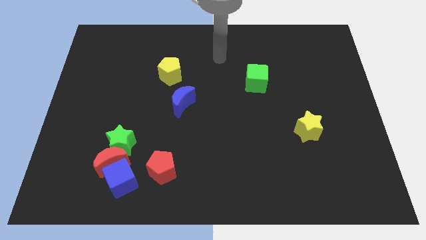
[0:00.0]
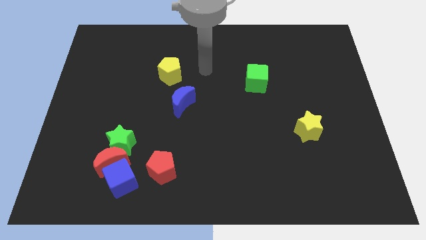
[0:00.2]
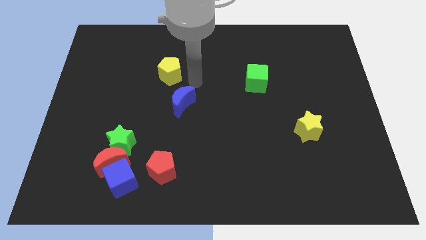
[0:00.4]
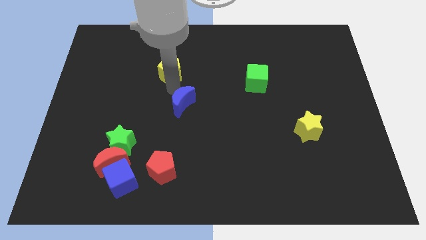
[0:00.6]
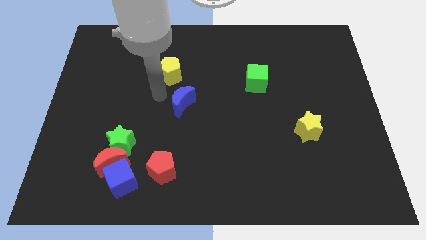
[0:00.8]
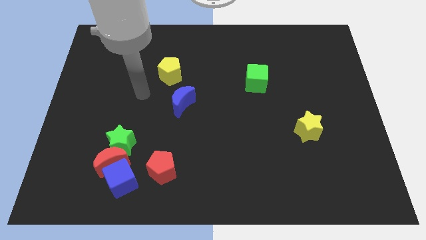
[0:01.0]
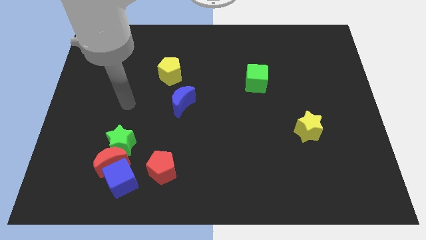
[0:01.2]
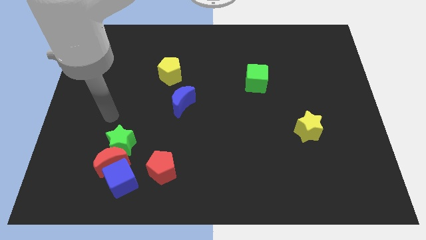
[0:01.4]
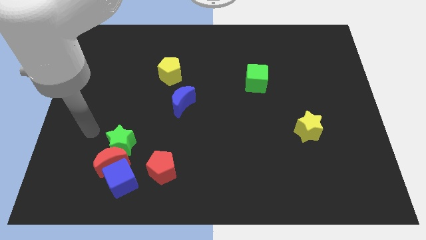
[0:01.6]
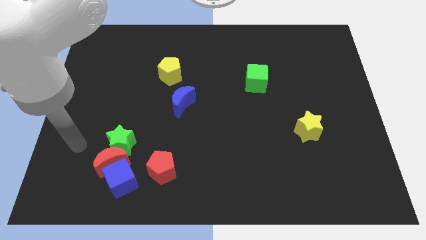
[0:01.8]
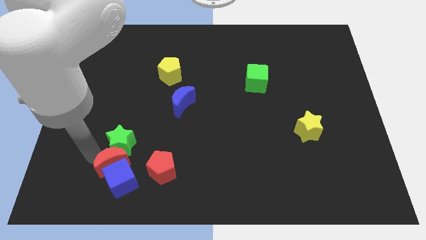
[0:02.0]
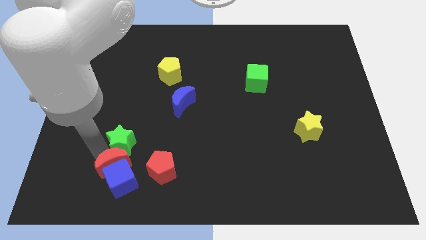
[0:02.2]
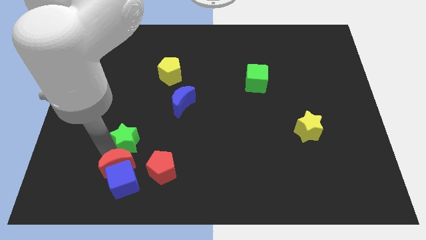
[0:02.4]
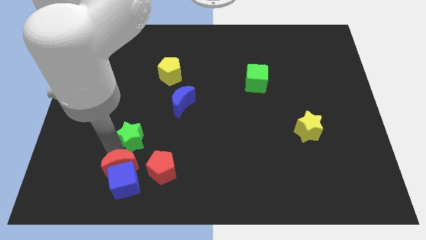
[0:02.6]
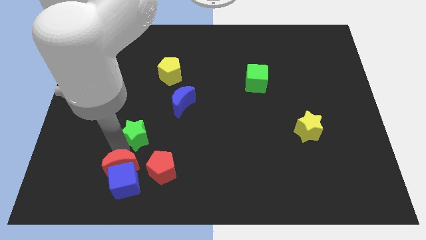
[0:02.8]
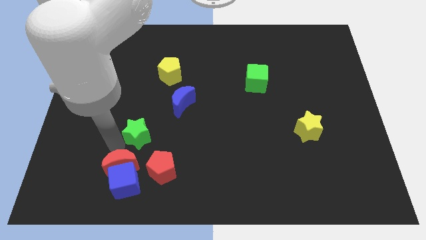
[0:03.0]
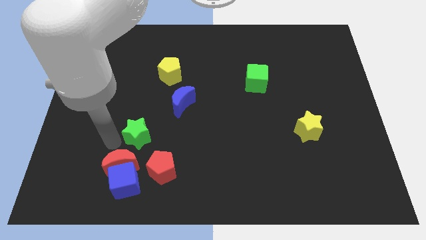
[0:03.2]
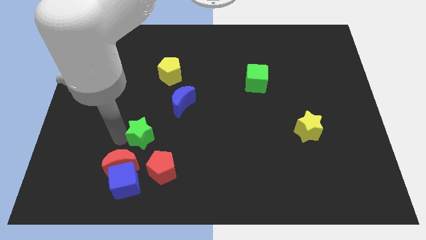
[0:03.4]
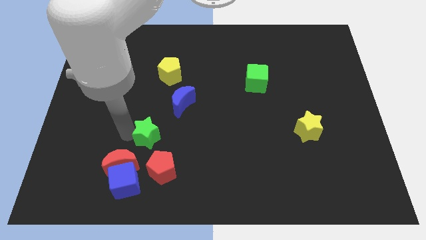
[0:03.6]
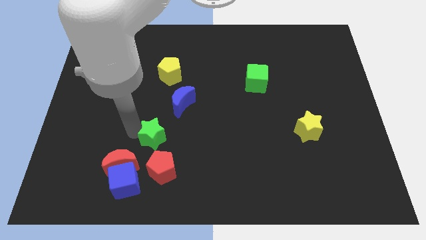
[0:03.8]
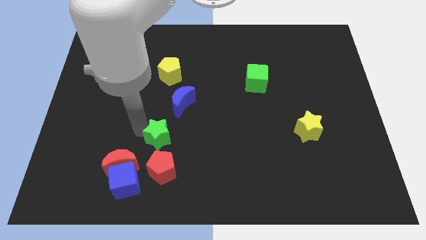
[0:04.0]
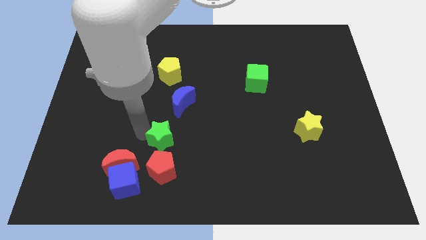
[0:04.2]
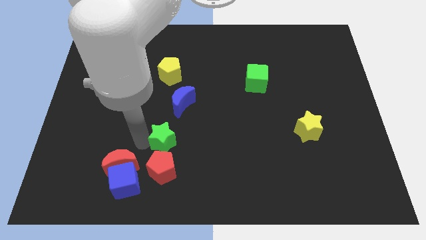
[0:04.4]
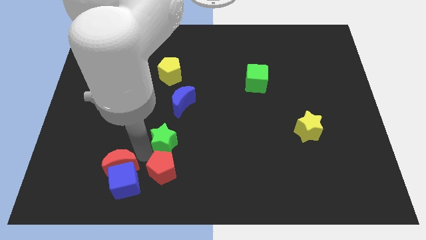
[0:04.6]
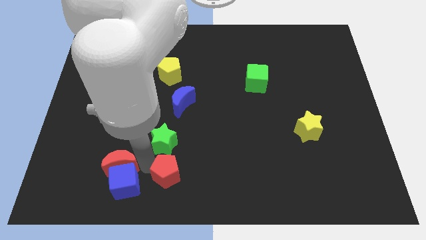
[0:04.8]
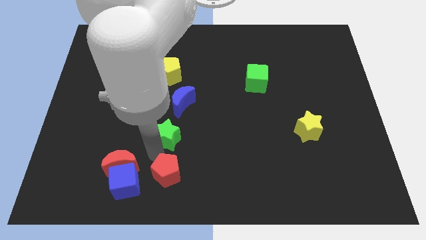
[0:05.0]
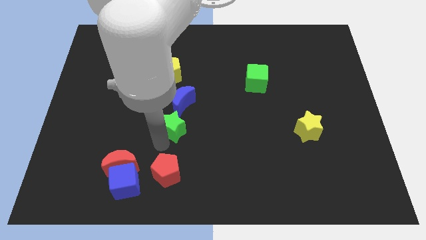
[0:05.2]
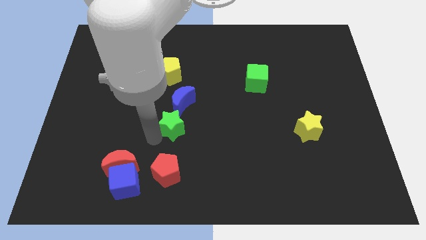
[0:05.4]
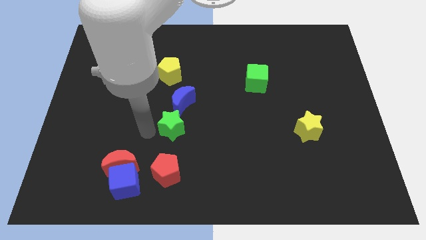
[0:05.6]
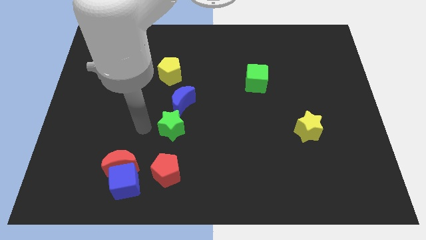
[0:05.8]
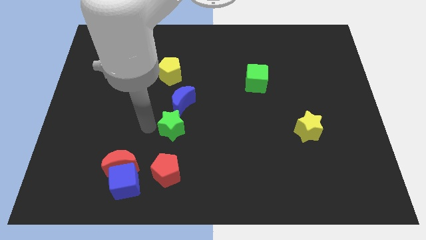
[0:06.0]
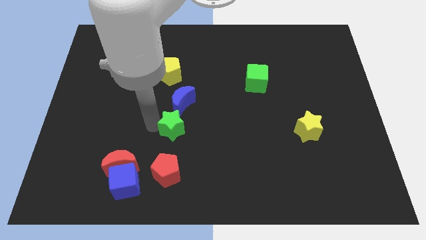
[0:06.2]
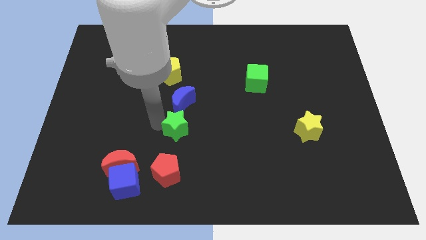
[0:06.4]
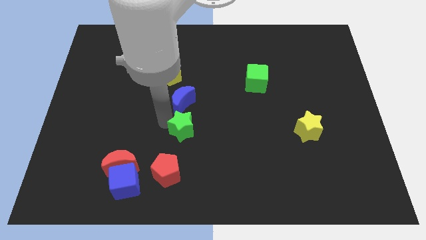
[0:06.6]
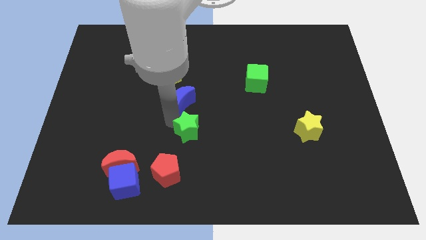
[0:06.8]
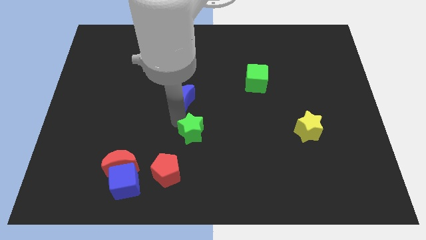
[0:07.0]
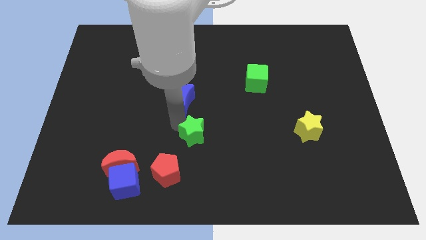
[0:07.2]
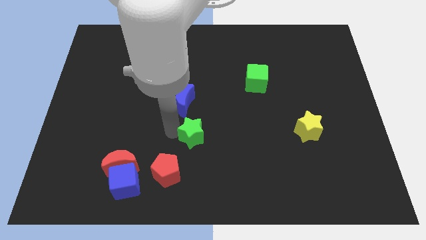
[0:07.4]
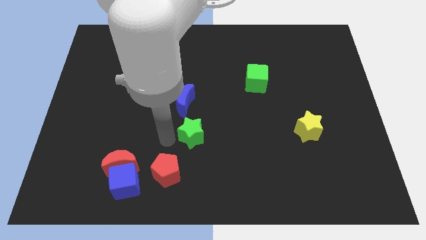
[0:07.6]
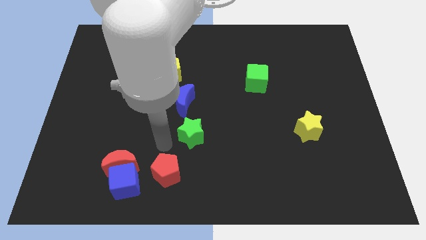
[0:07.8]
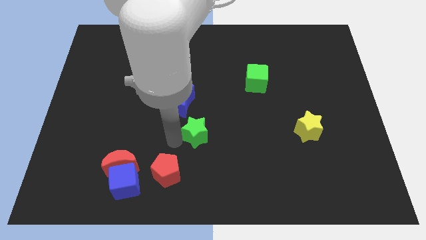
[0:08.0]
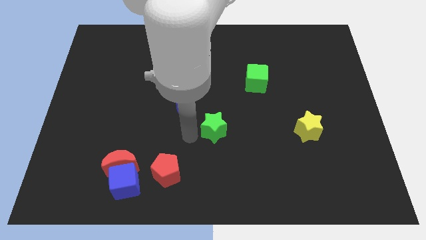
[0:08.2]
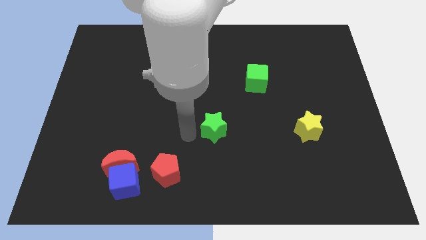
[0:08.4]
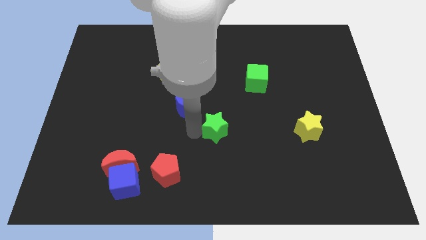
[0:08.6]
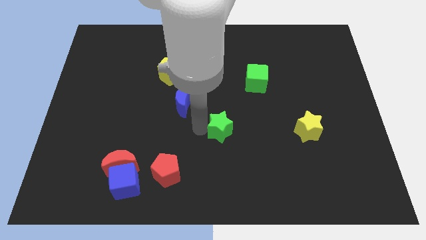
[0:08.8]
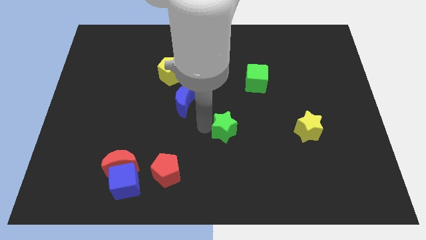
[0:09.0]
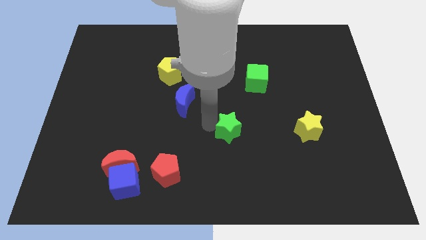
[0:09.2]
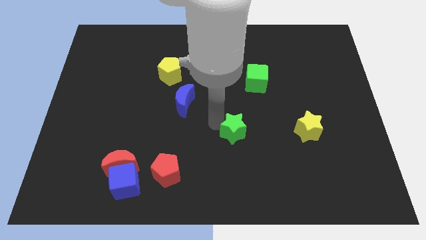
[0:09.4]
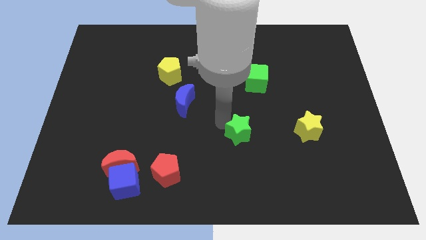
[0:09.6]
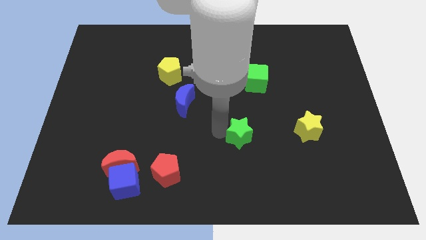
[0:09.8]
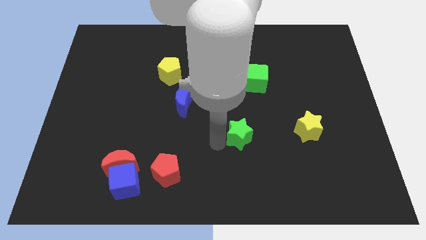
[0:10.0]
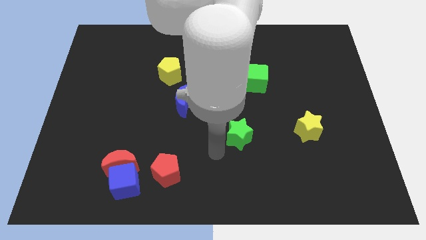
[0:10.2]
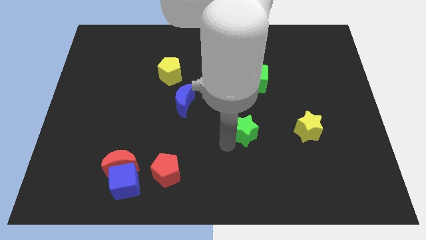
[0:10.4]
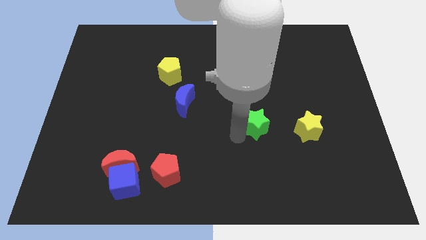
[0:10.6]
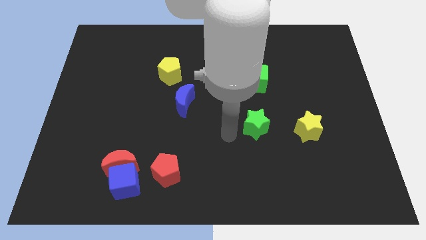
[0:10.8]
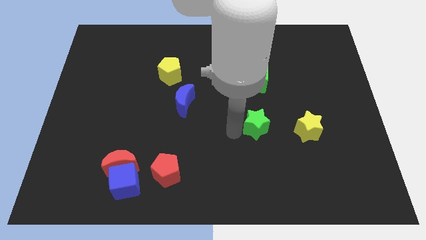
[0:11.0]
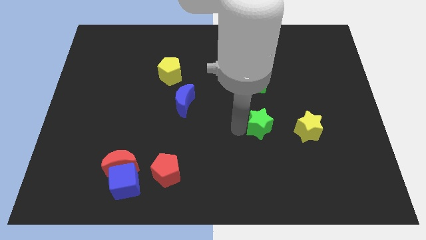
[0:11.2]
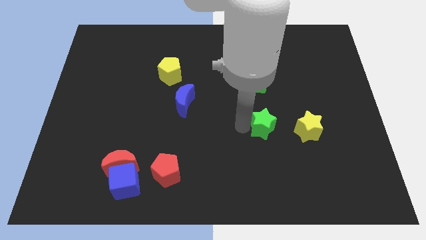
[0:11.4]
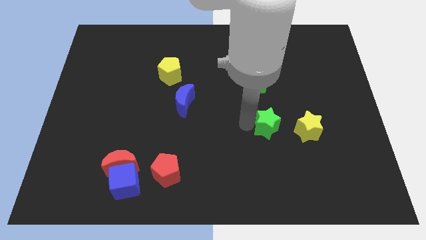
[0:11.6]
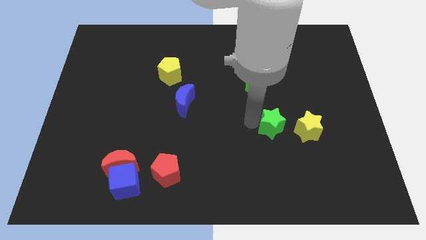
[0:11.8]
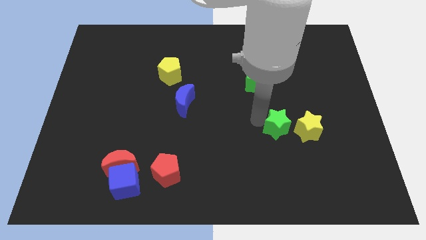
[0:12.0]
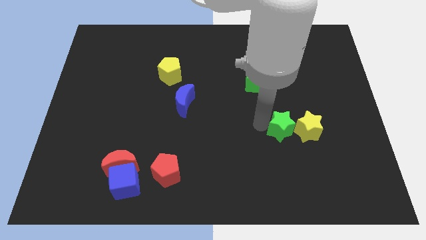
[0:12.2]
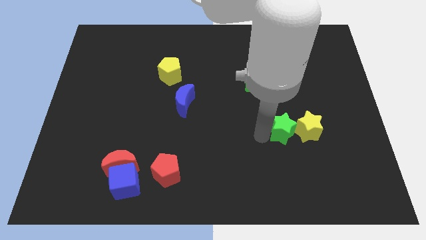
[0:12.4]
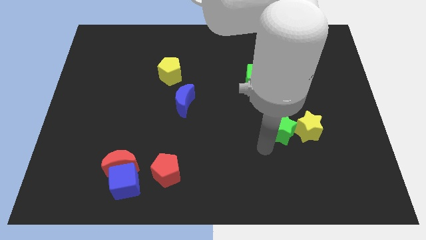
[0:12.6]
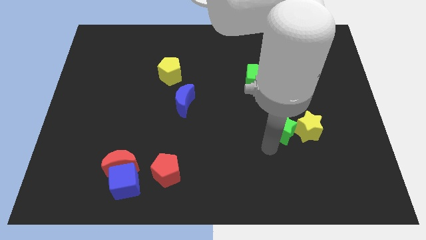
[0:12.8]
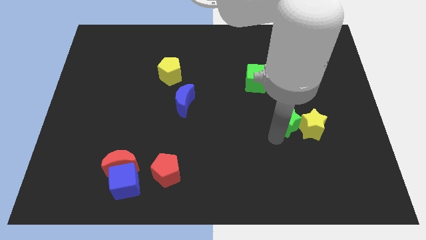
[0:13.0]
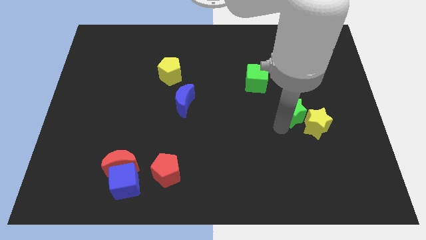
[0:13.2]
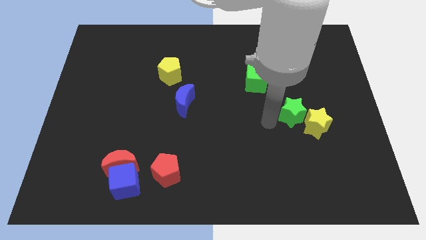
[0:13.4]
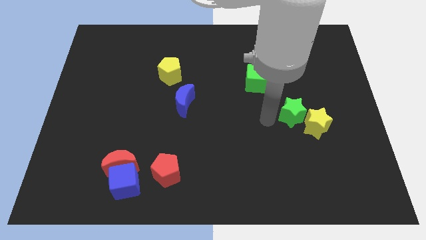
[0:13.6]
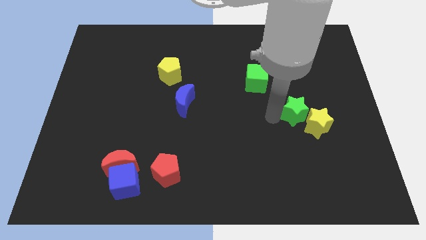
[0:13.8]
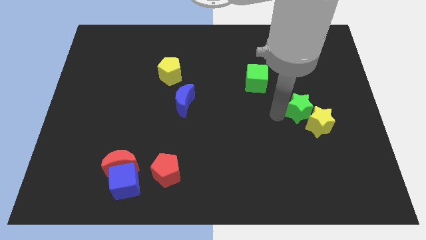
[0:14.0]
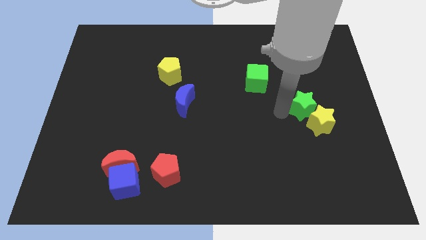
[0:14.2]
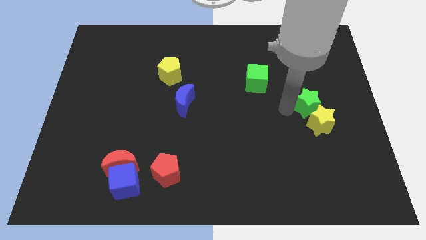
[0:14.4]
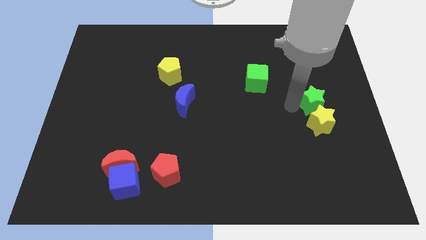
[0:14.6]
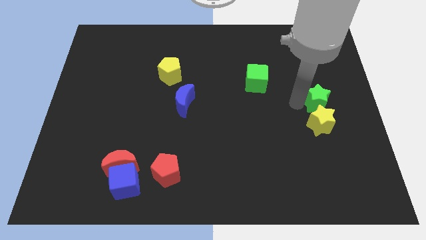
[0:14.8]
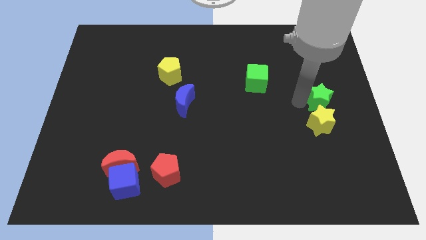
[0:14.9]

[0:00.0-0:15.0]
push the green star to the right side
